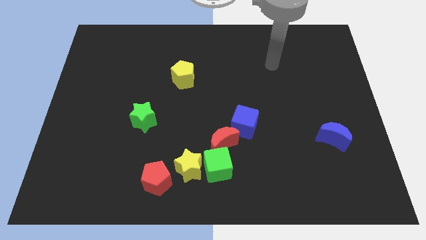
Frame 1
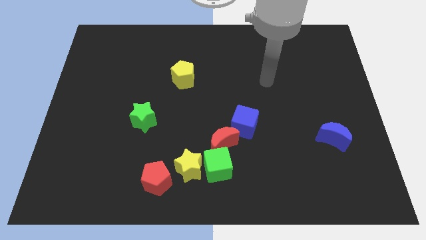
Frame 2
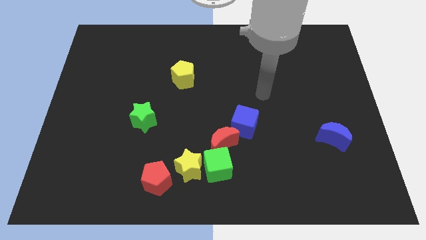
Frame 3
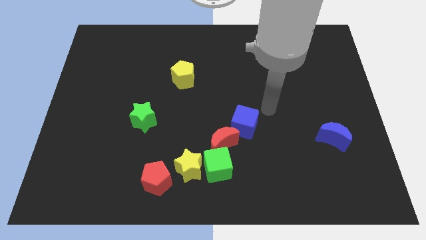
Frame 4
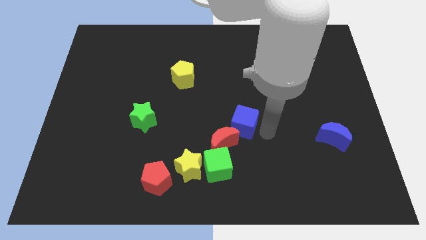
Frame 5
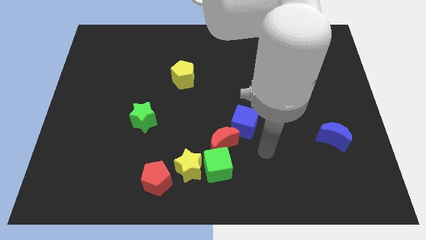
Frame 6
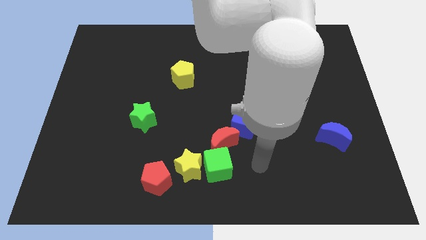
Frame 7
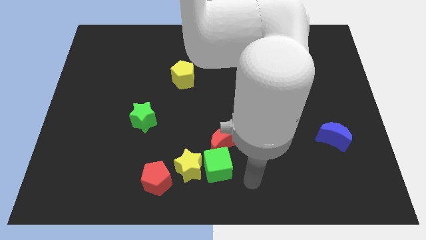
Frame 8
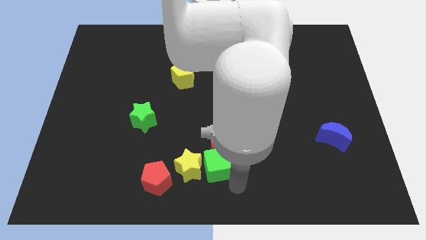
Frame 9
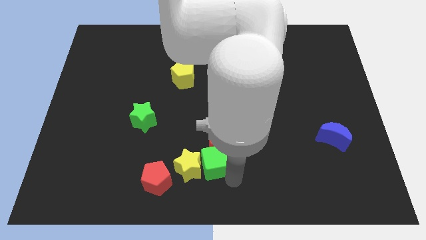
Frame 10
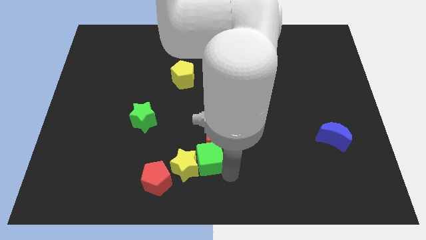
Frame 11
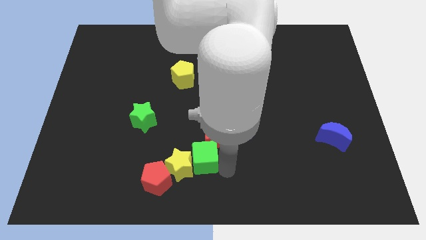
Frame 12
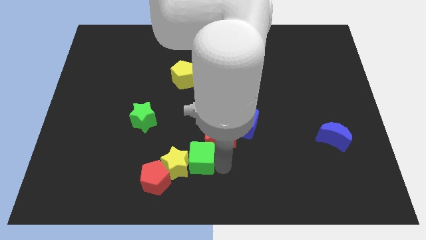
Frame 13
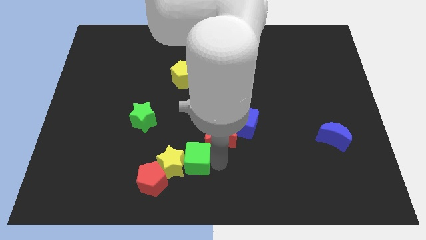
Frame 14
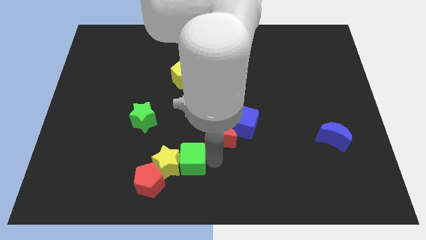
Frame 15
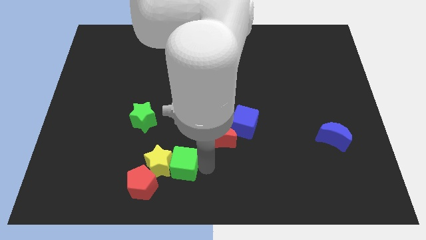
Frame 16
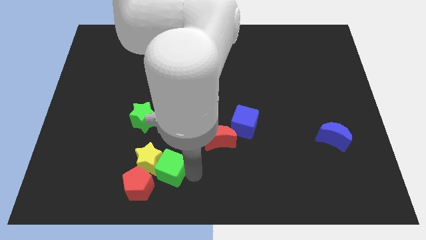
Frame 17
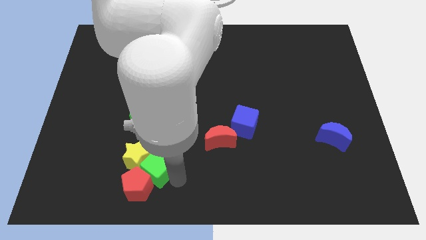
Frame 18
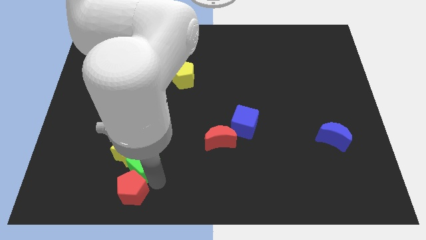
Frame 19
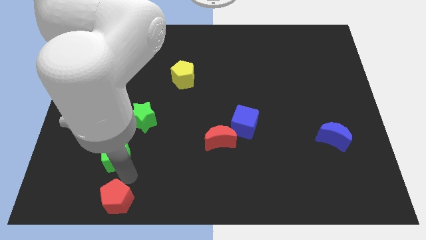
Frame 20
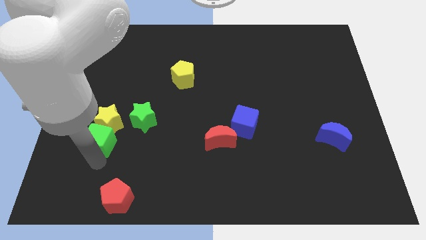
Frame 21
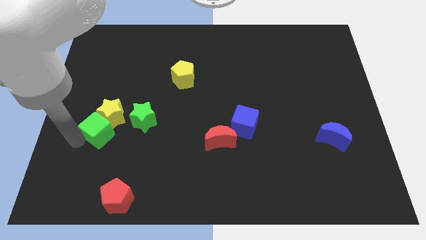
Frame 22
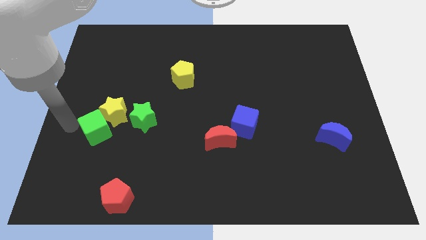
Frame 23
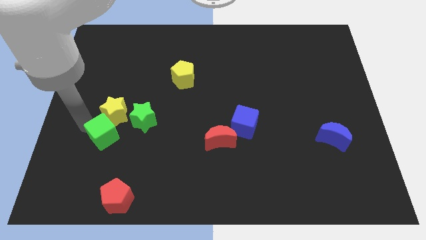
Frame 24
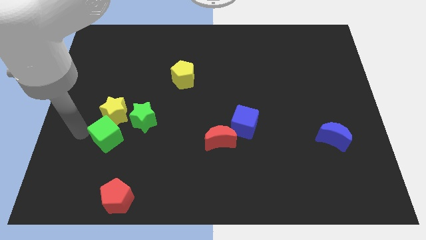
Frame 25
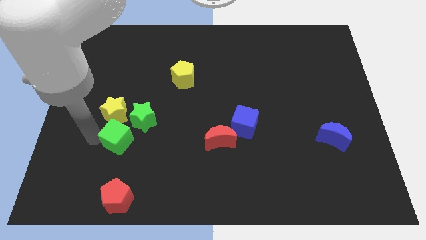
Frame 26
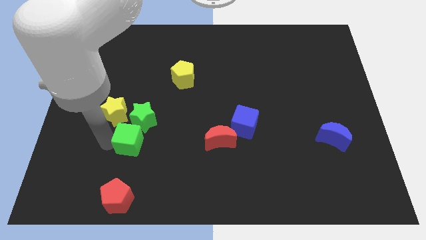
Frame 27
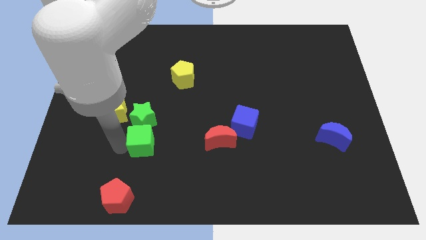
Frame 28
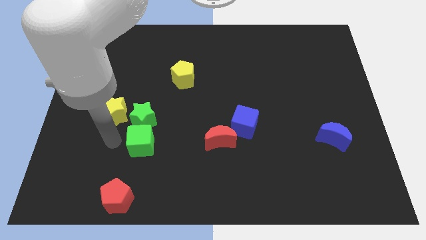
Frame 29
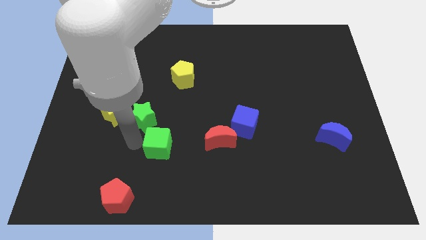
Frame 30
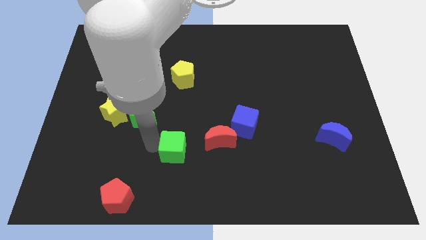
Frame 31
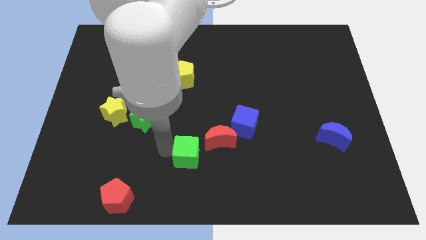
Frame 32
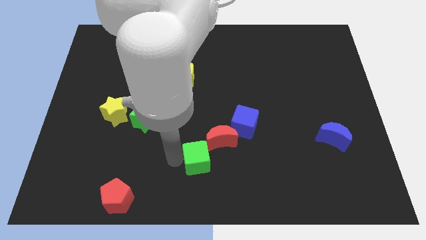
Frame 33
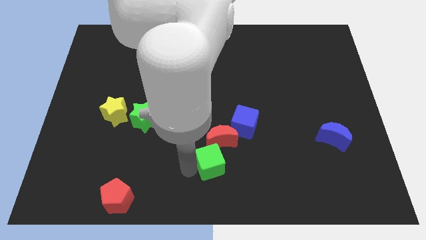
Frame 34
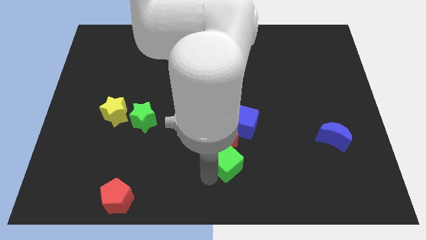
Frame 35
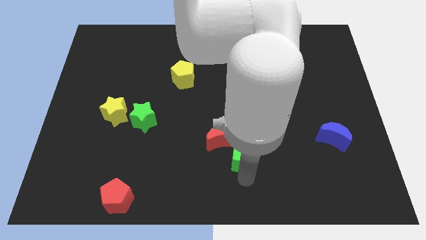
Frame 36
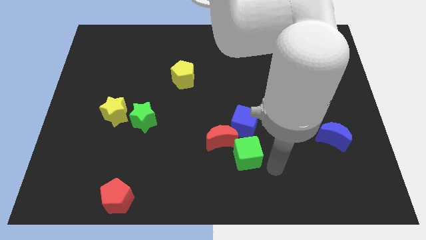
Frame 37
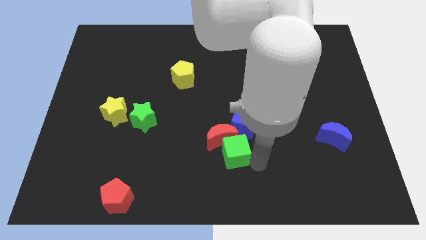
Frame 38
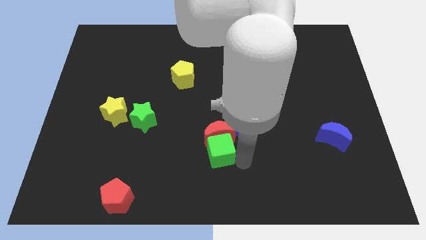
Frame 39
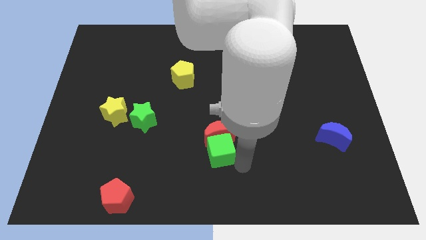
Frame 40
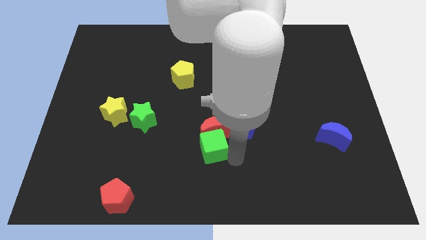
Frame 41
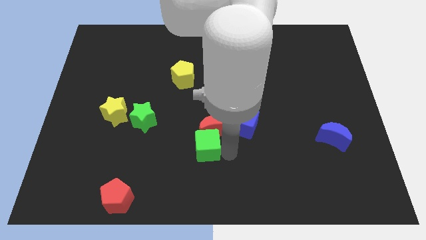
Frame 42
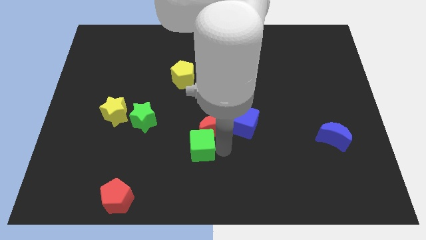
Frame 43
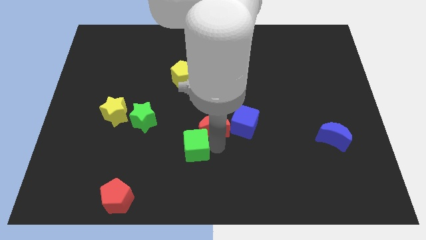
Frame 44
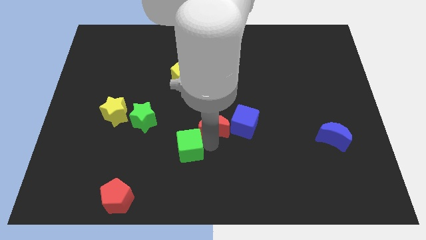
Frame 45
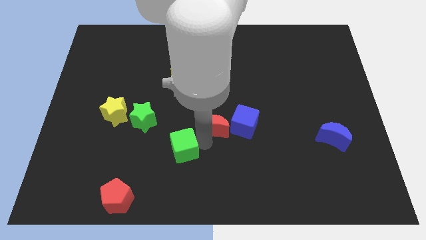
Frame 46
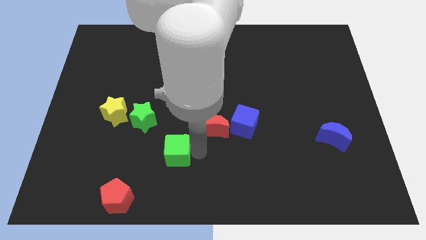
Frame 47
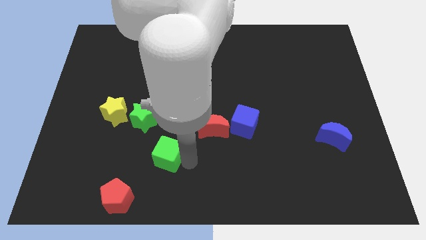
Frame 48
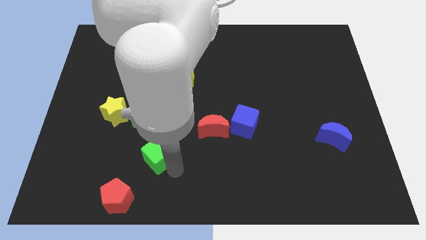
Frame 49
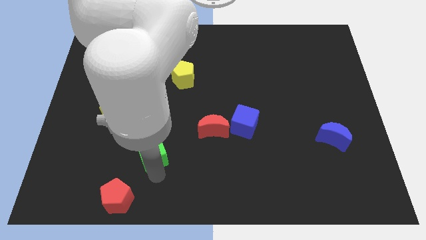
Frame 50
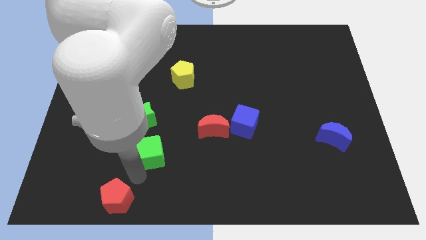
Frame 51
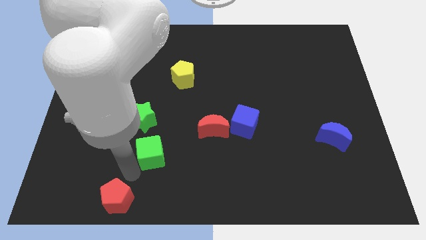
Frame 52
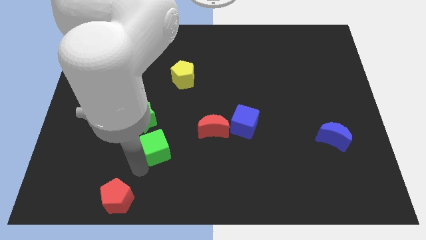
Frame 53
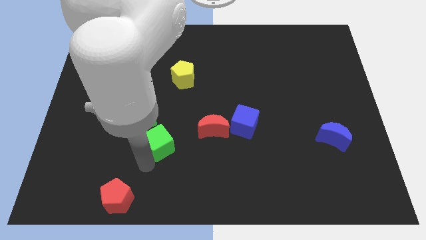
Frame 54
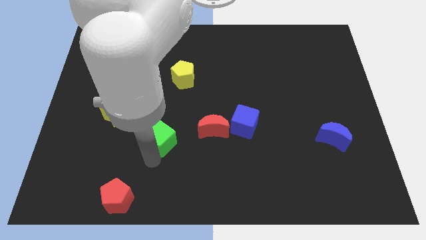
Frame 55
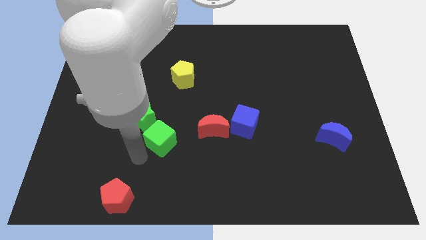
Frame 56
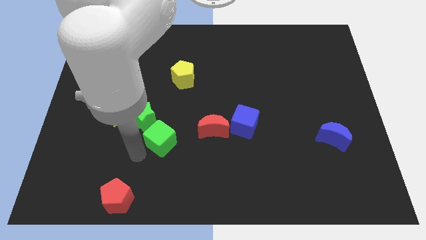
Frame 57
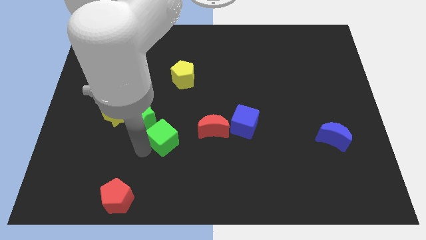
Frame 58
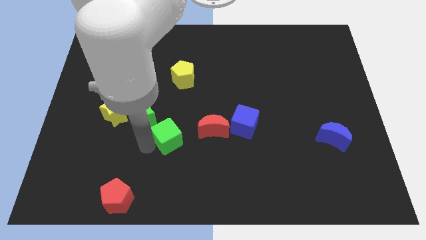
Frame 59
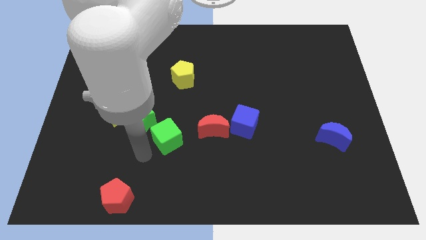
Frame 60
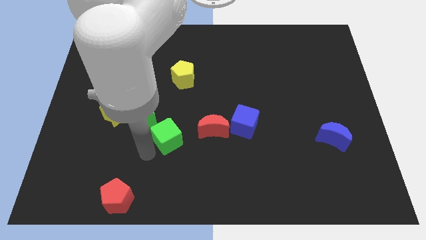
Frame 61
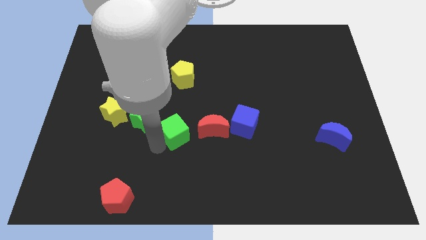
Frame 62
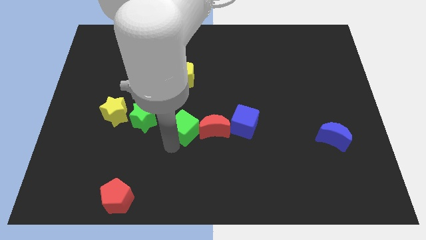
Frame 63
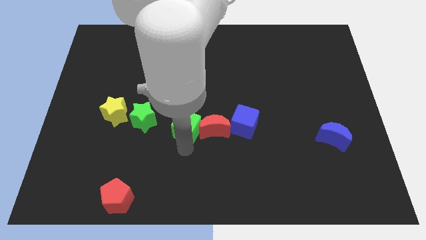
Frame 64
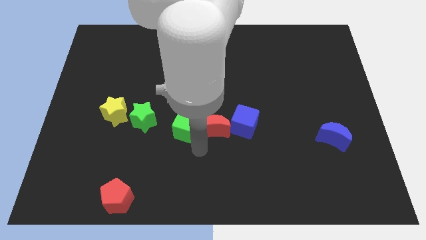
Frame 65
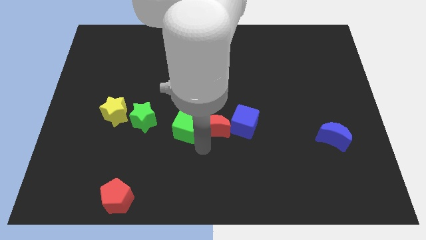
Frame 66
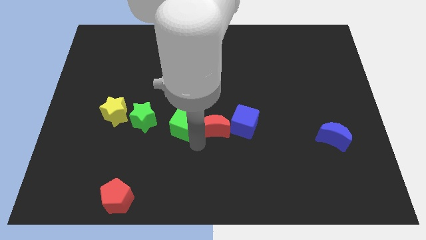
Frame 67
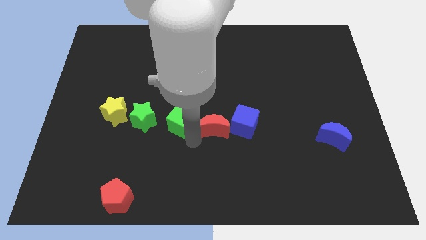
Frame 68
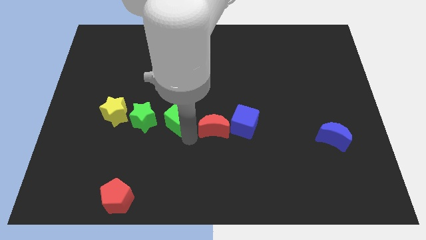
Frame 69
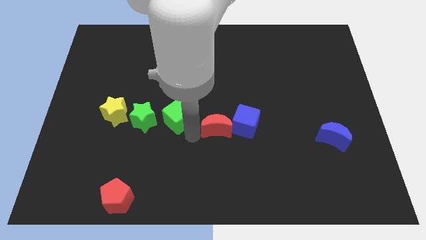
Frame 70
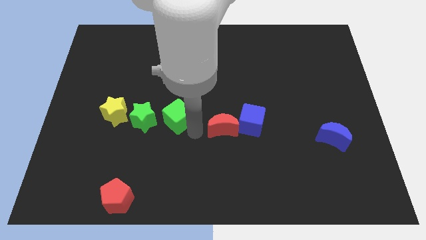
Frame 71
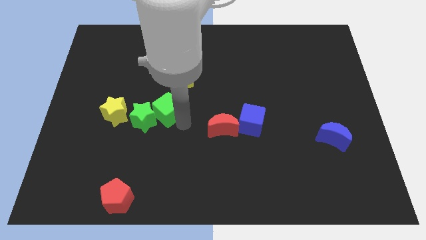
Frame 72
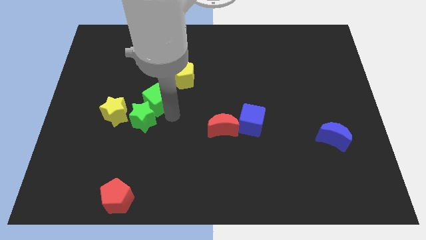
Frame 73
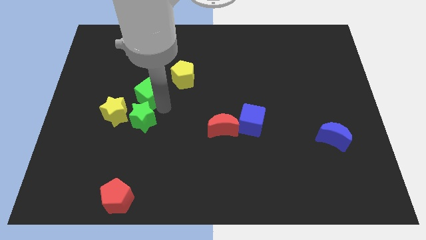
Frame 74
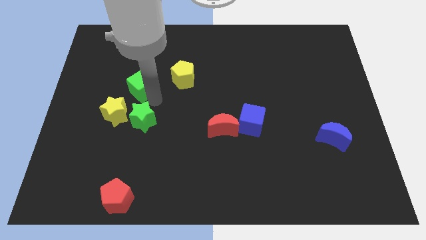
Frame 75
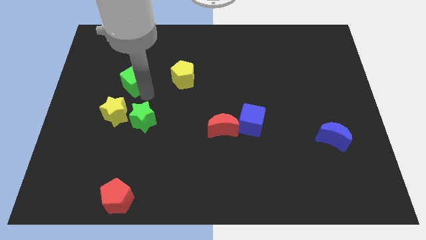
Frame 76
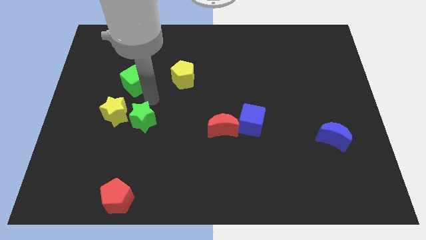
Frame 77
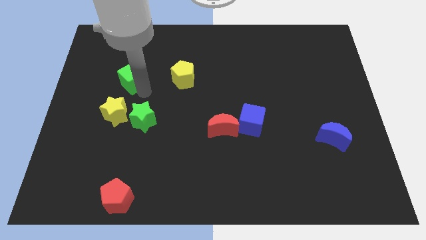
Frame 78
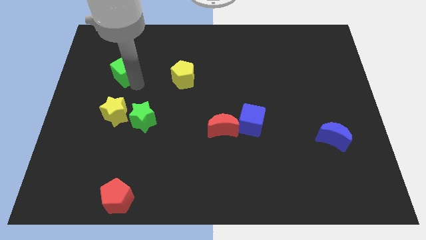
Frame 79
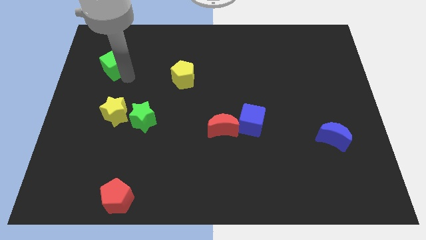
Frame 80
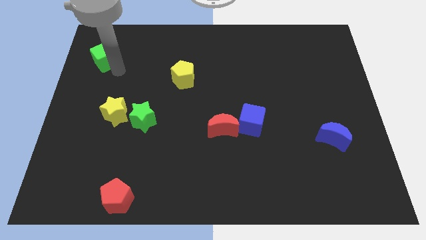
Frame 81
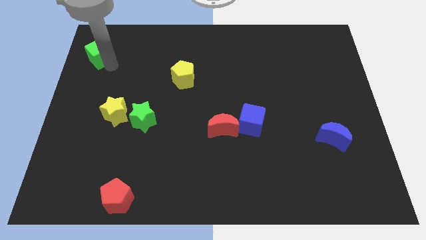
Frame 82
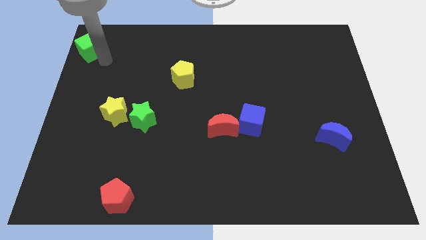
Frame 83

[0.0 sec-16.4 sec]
move the green cube to the top left corner
